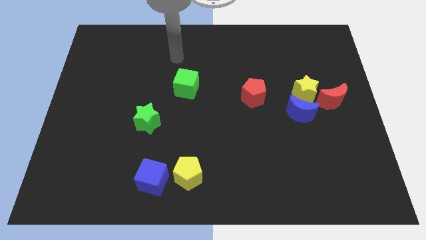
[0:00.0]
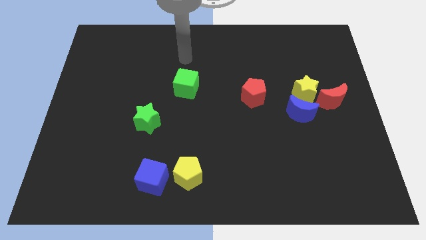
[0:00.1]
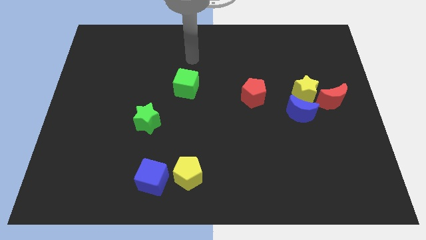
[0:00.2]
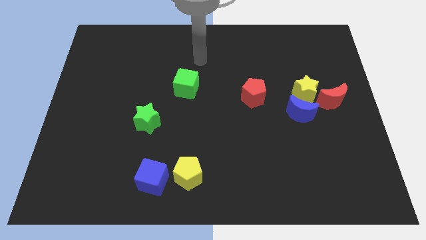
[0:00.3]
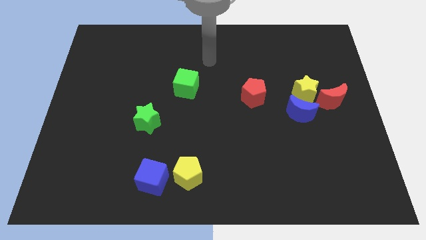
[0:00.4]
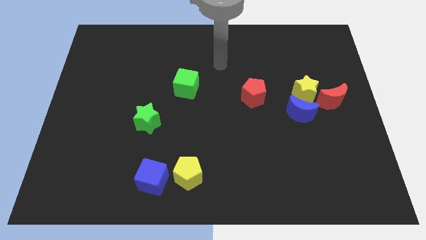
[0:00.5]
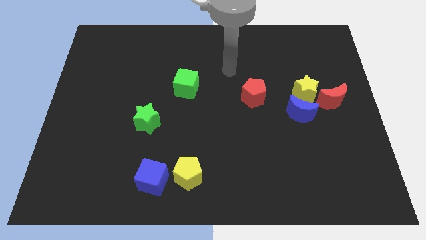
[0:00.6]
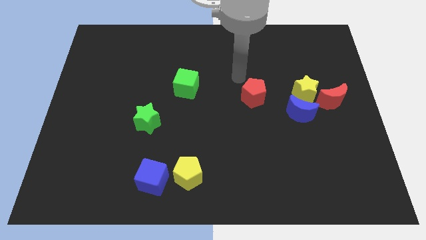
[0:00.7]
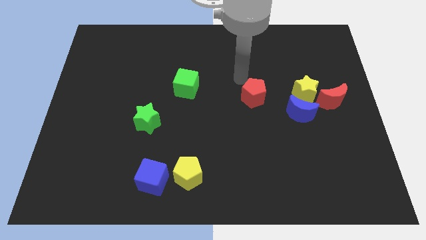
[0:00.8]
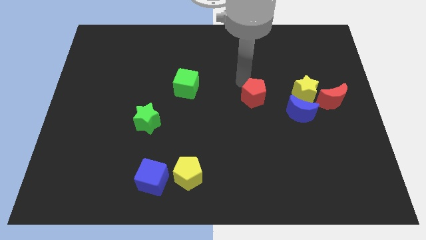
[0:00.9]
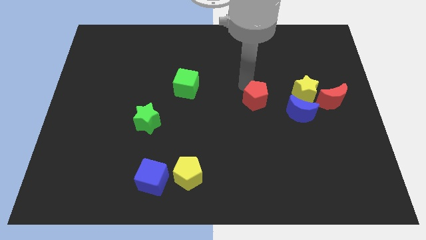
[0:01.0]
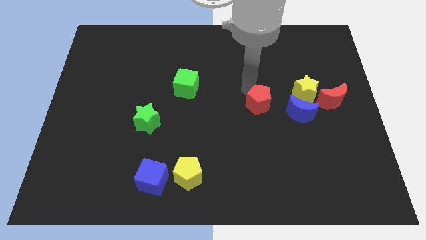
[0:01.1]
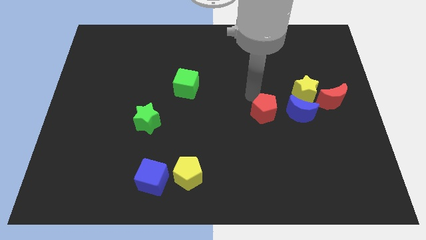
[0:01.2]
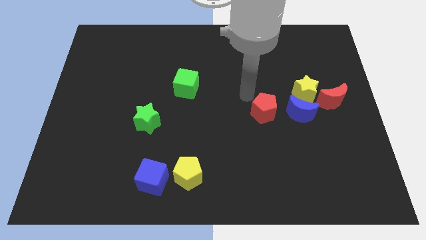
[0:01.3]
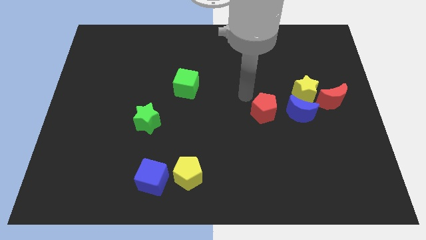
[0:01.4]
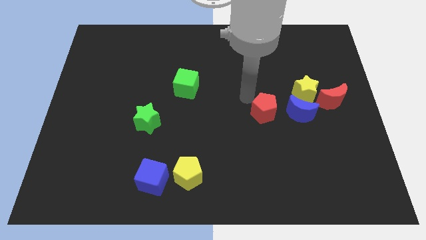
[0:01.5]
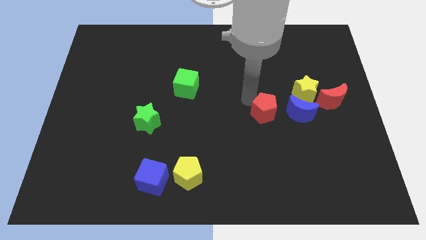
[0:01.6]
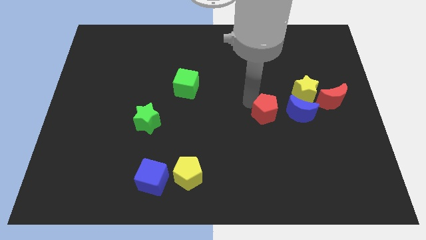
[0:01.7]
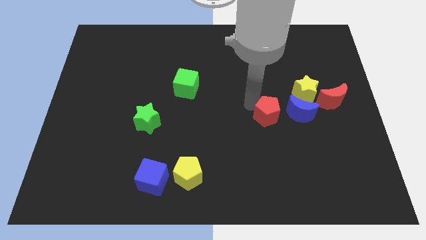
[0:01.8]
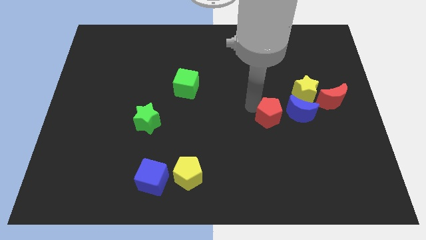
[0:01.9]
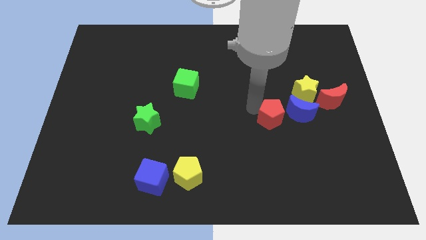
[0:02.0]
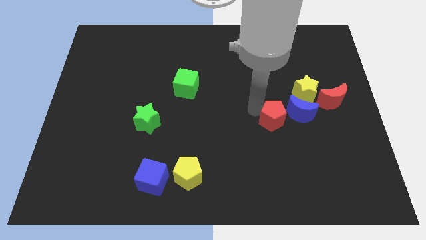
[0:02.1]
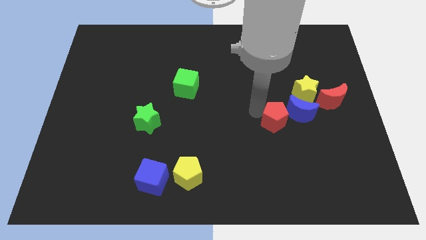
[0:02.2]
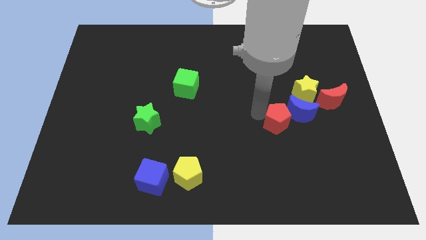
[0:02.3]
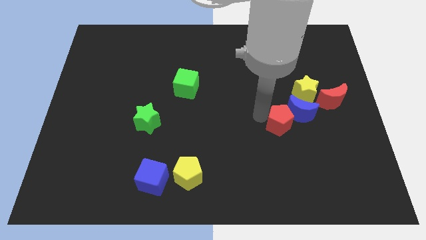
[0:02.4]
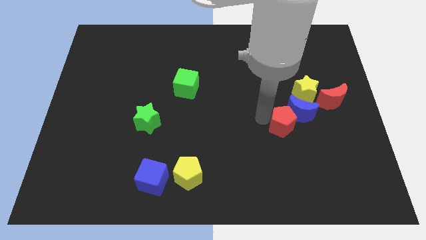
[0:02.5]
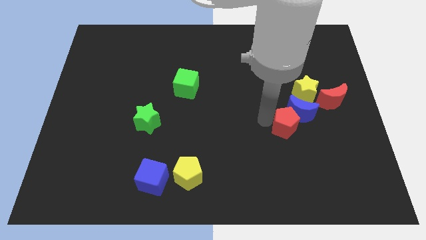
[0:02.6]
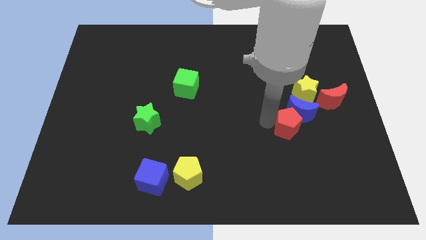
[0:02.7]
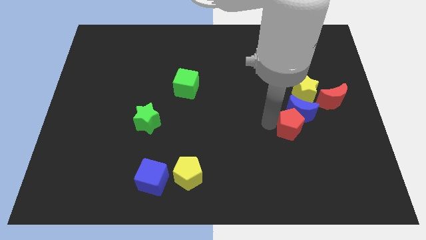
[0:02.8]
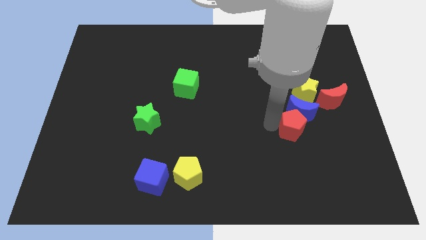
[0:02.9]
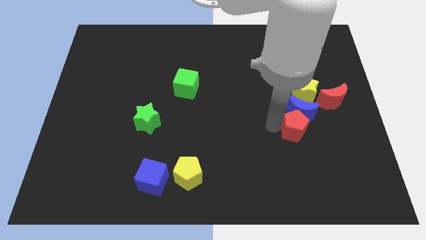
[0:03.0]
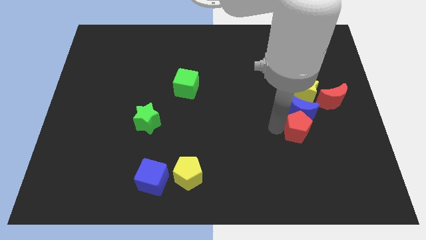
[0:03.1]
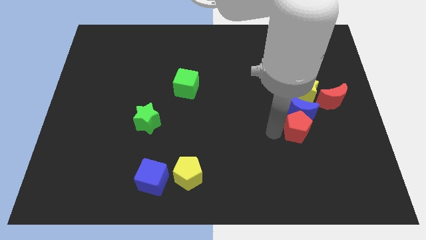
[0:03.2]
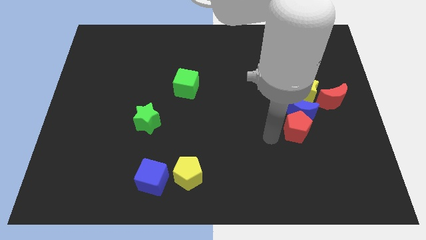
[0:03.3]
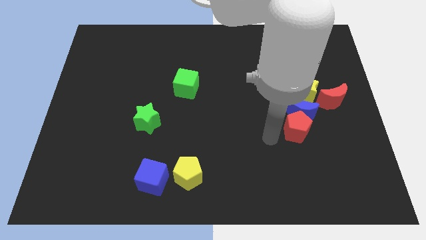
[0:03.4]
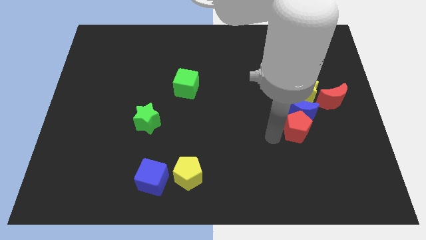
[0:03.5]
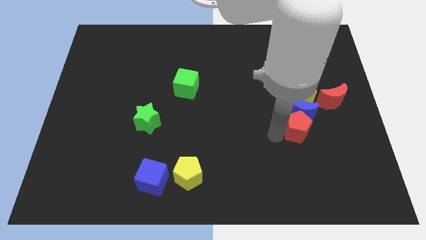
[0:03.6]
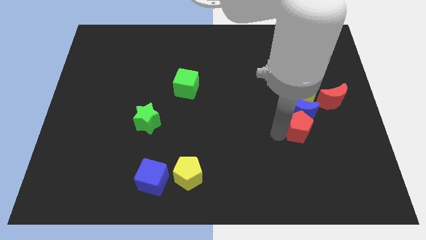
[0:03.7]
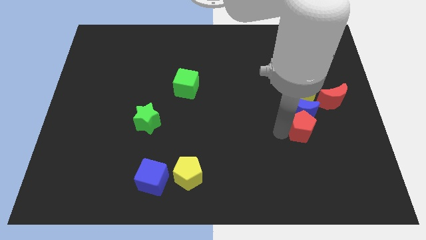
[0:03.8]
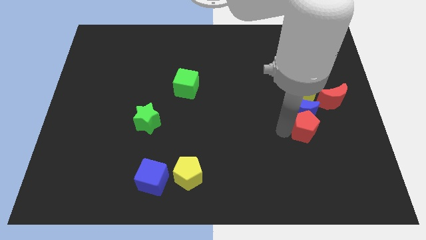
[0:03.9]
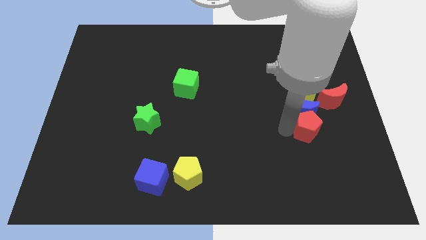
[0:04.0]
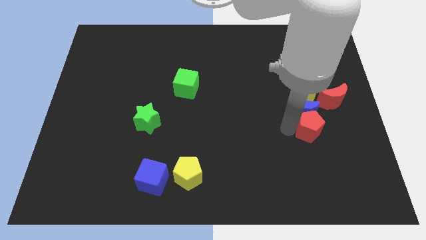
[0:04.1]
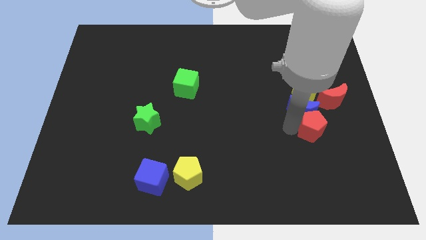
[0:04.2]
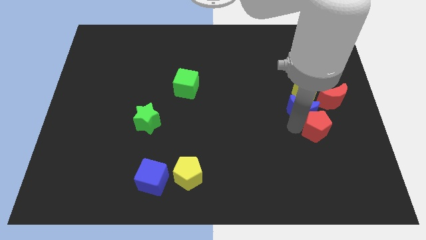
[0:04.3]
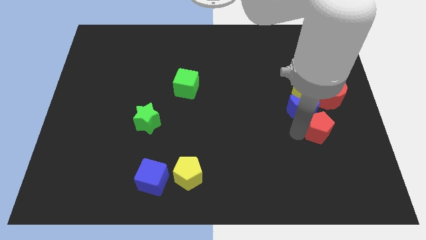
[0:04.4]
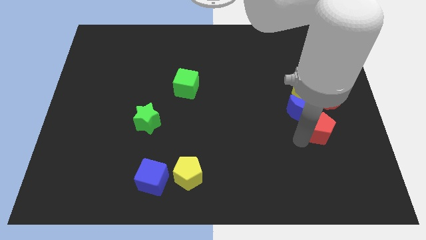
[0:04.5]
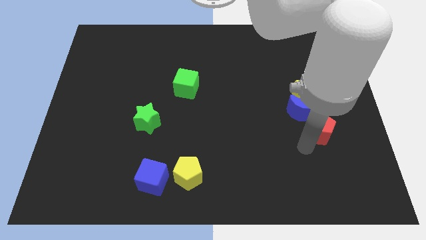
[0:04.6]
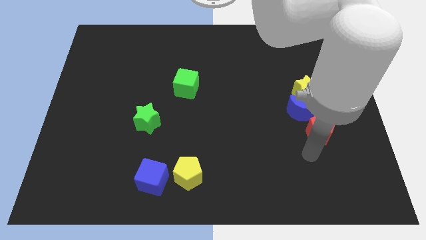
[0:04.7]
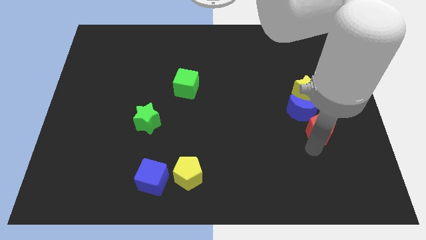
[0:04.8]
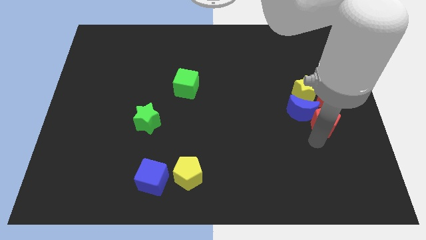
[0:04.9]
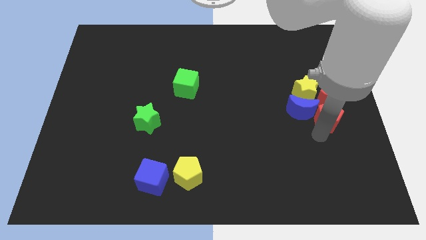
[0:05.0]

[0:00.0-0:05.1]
push the red pentagon to the red moon

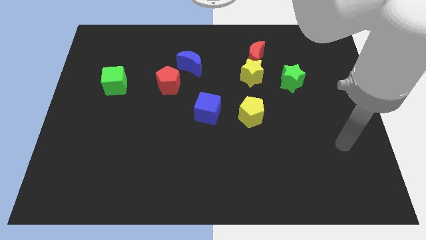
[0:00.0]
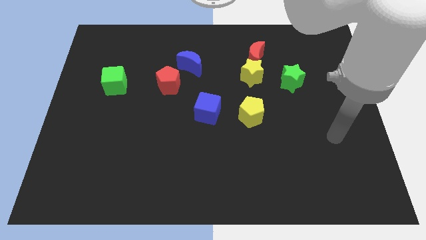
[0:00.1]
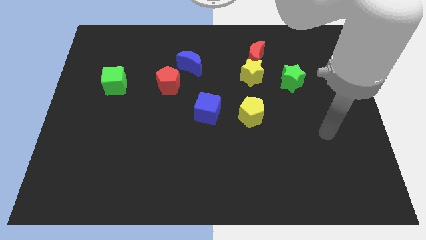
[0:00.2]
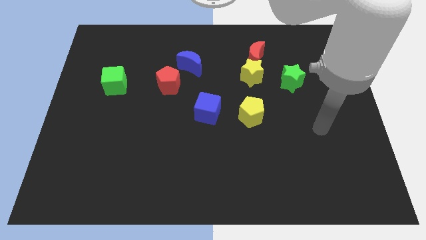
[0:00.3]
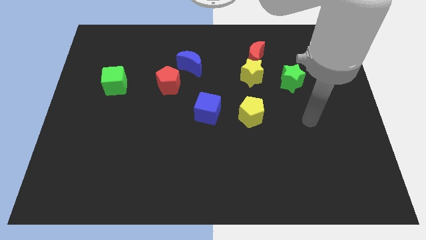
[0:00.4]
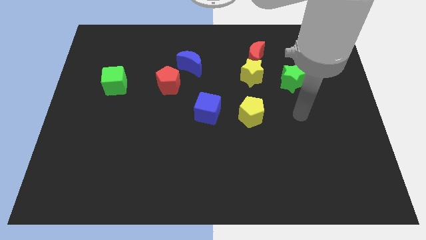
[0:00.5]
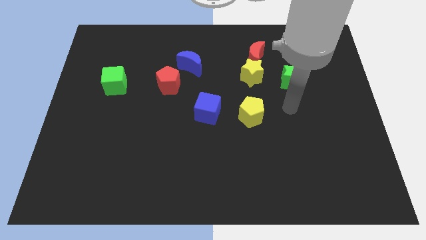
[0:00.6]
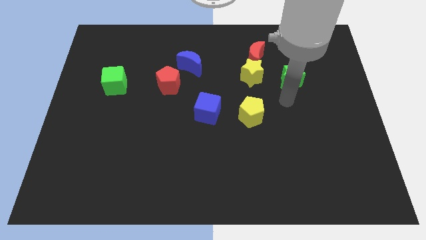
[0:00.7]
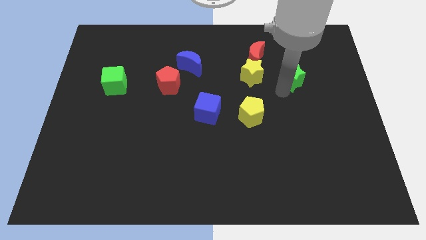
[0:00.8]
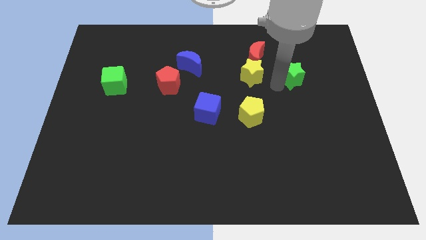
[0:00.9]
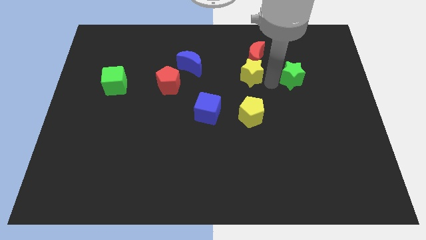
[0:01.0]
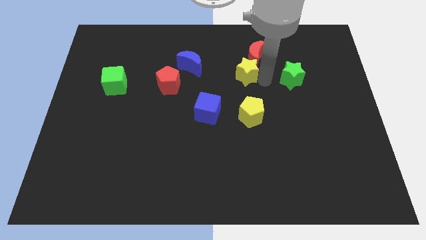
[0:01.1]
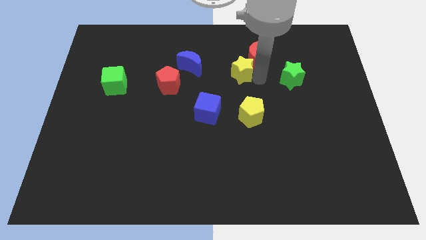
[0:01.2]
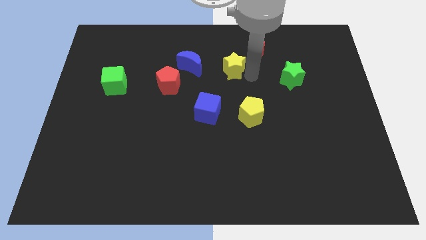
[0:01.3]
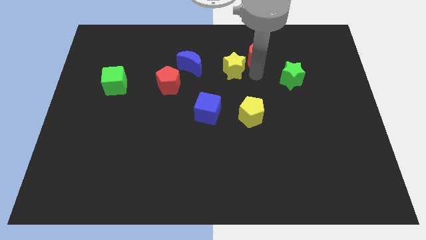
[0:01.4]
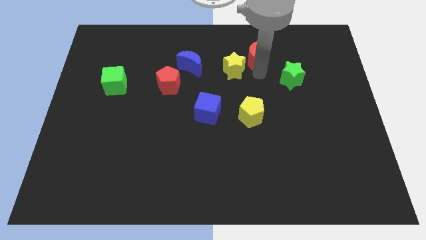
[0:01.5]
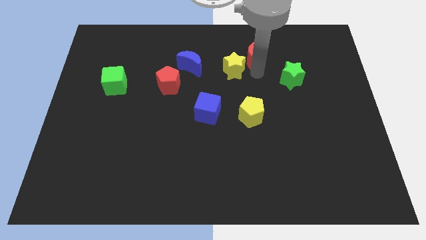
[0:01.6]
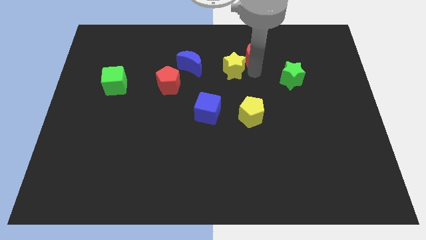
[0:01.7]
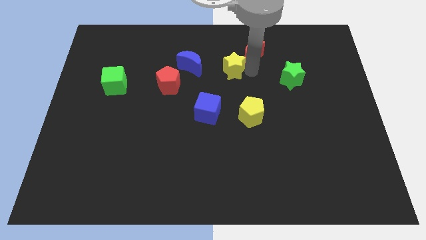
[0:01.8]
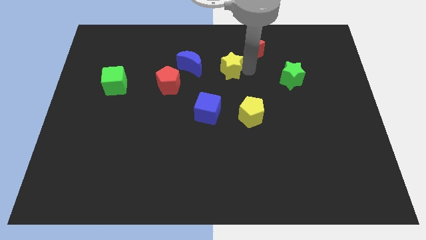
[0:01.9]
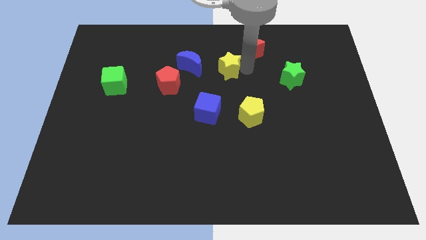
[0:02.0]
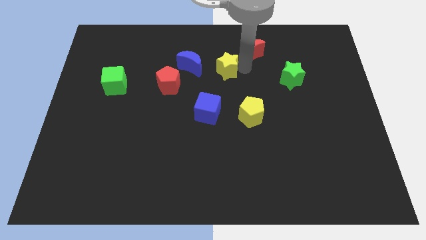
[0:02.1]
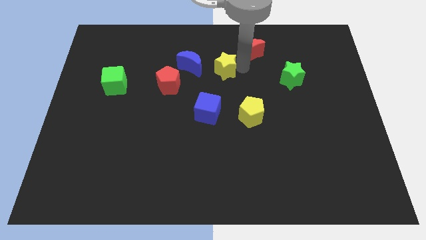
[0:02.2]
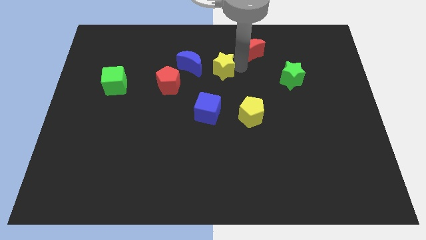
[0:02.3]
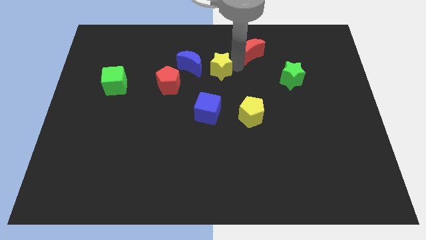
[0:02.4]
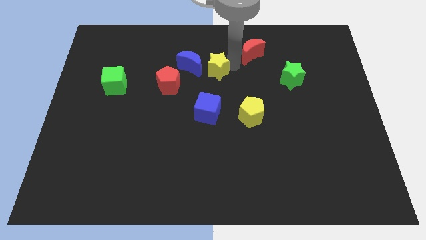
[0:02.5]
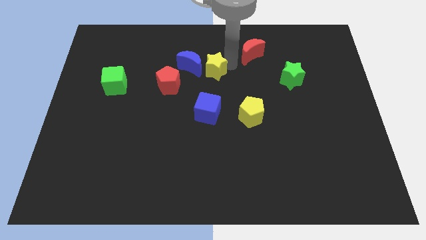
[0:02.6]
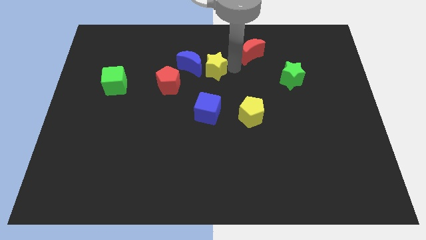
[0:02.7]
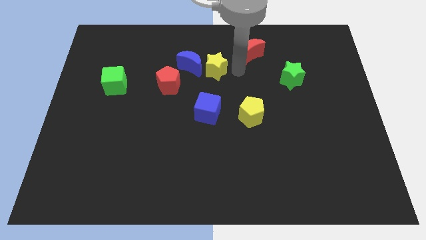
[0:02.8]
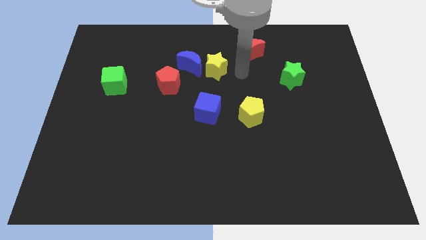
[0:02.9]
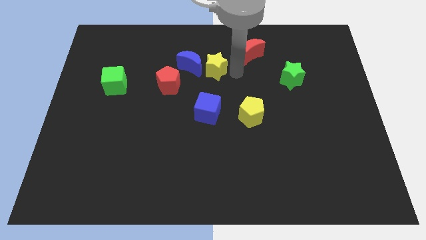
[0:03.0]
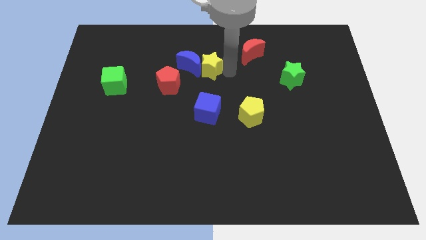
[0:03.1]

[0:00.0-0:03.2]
slide the yellow star towards the blue moon
